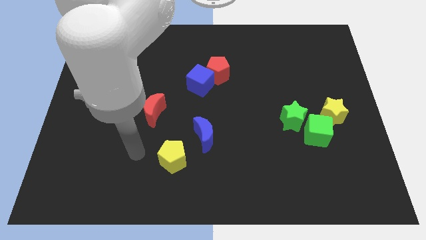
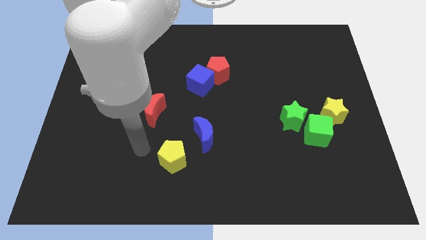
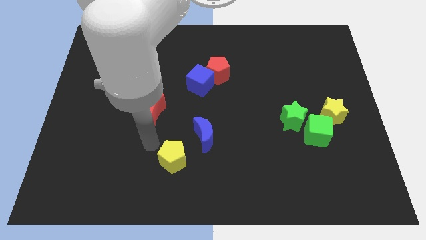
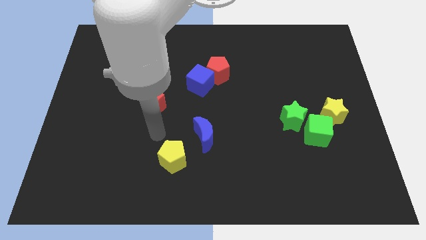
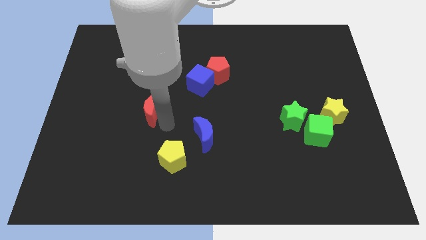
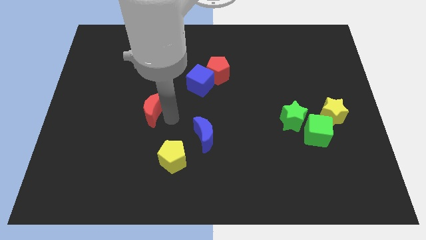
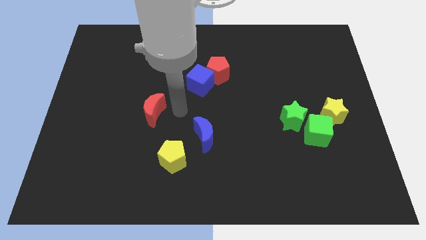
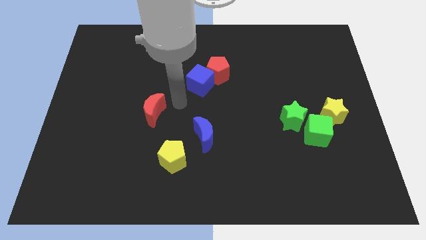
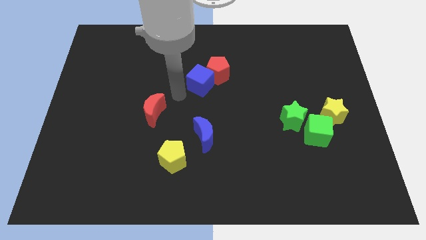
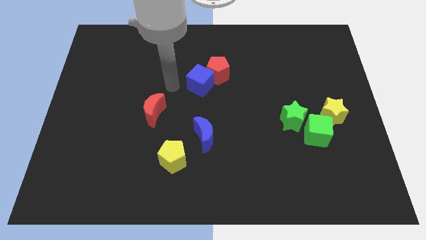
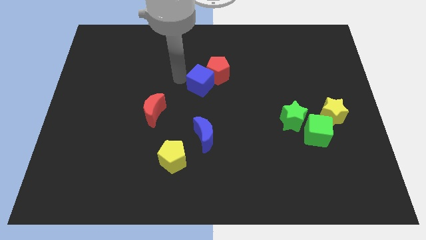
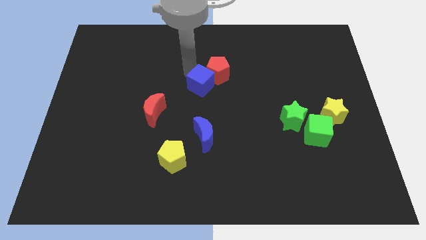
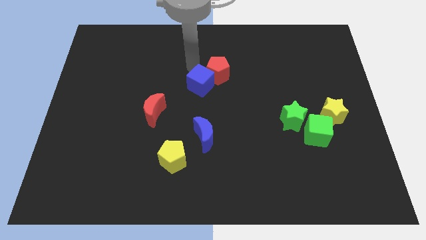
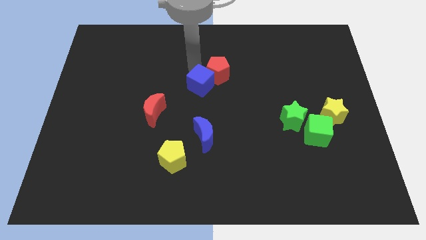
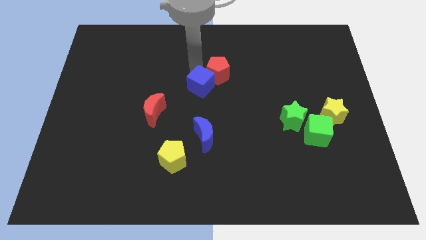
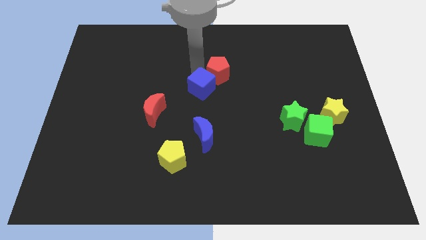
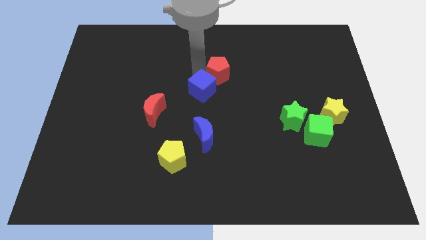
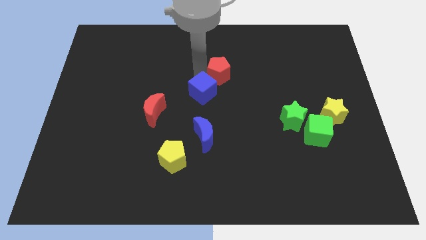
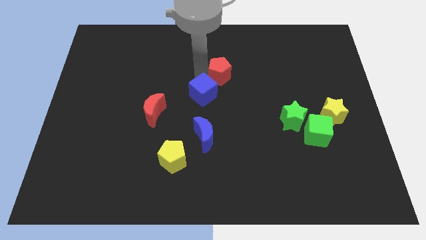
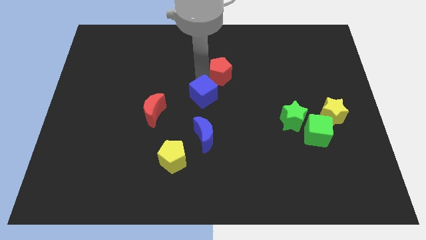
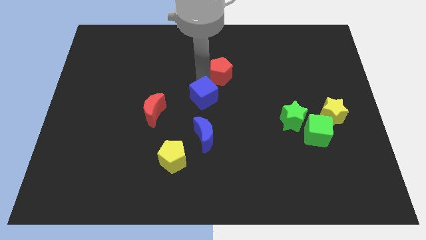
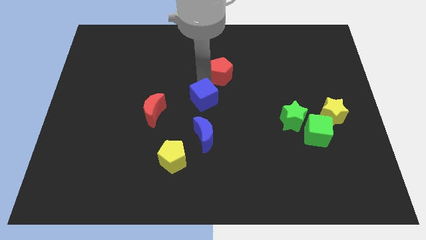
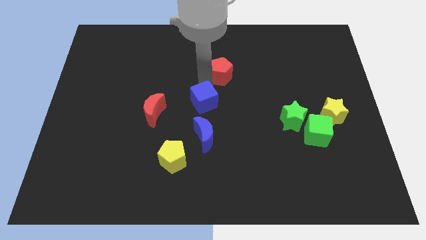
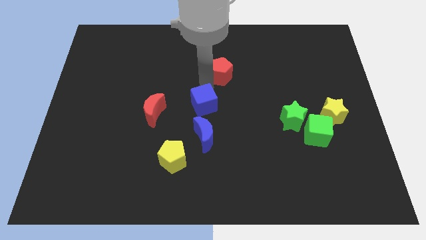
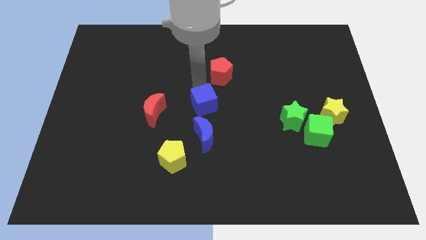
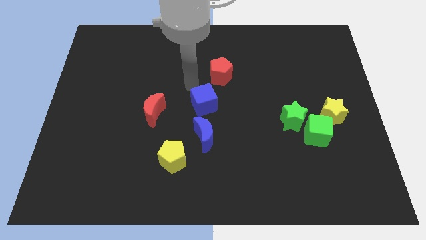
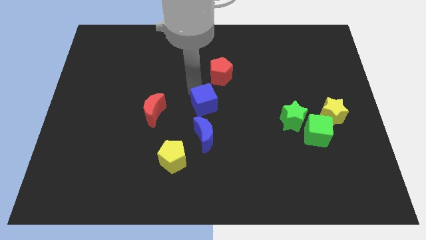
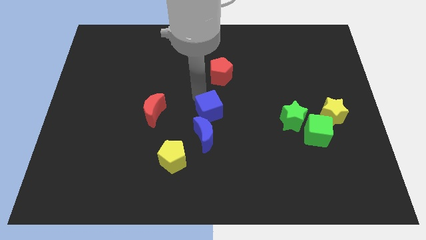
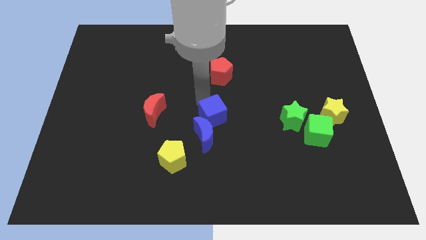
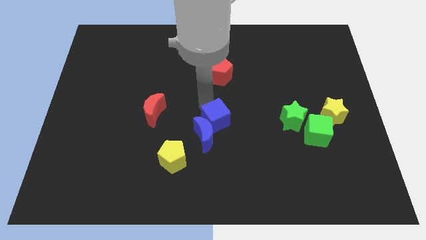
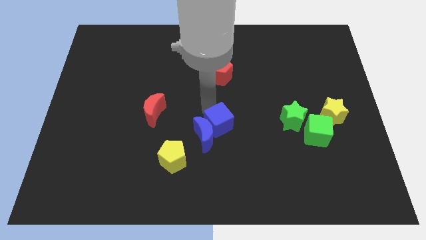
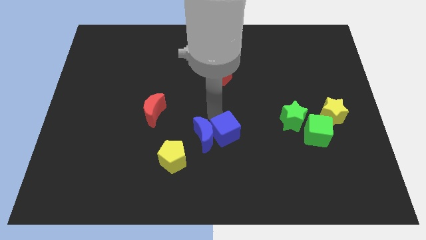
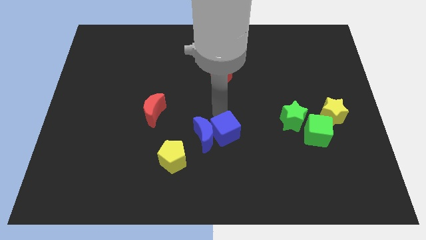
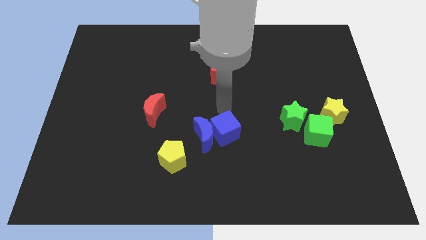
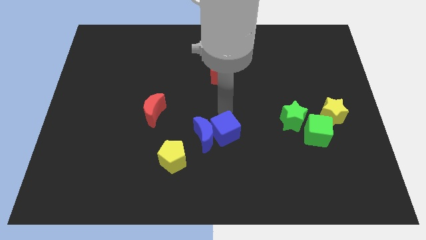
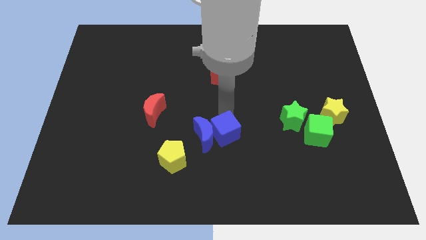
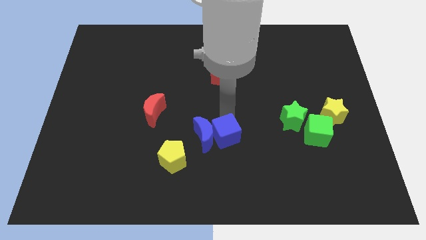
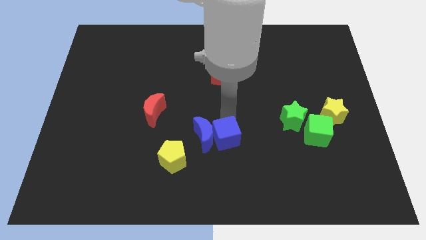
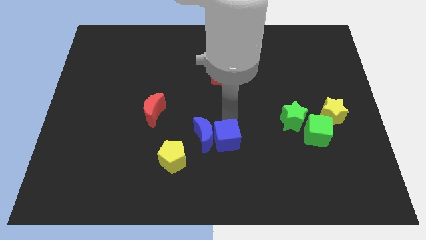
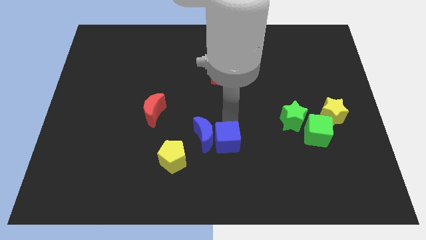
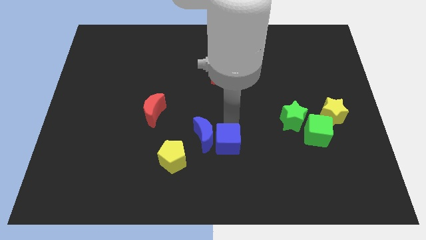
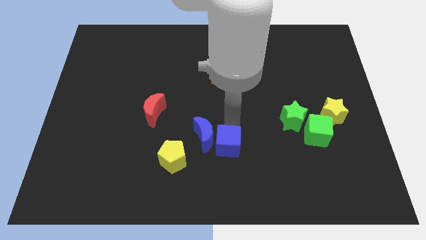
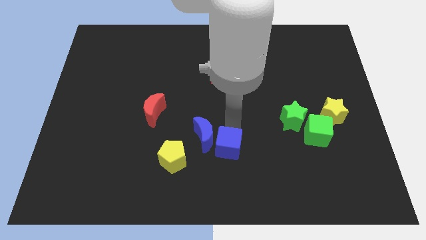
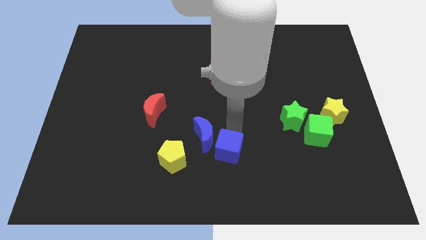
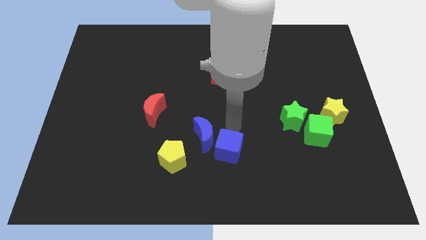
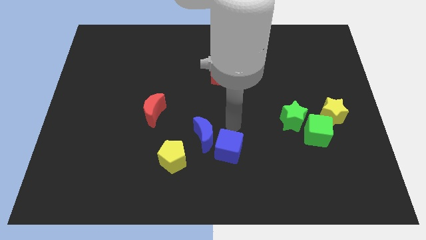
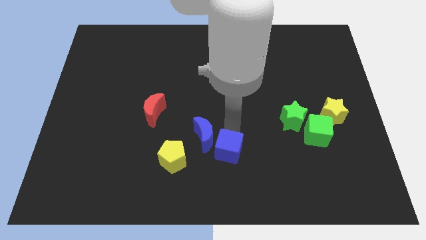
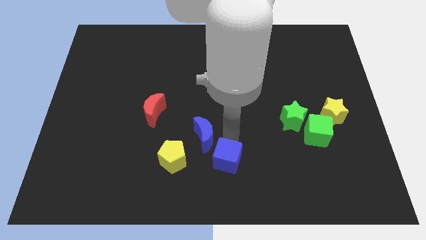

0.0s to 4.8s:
move the blue cube to the bottom side

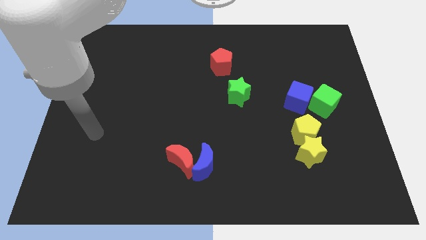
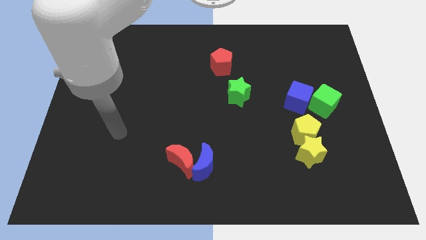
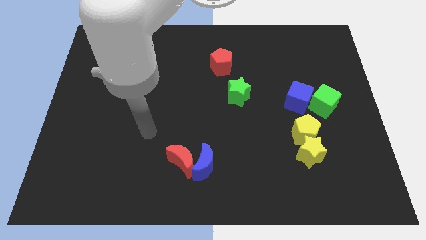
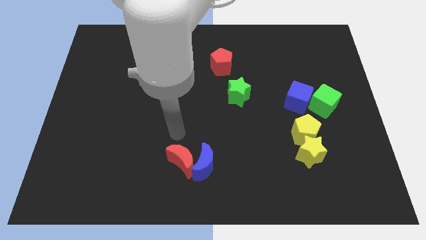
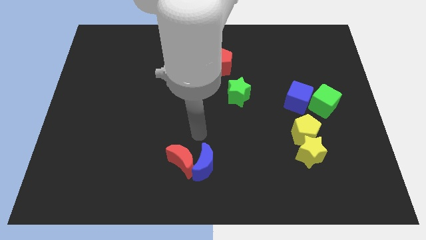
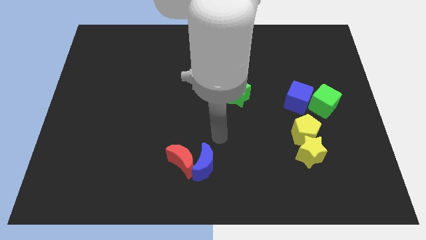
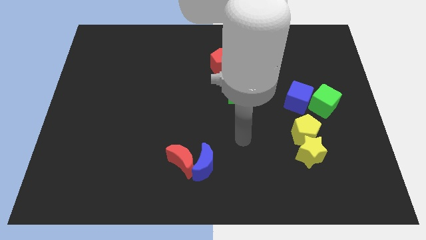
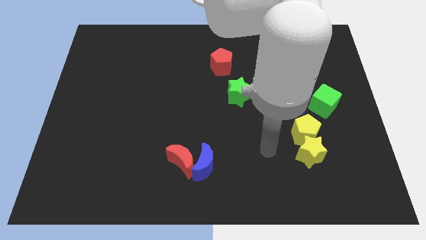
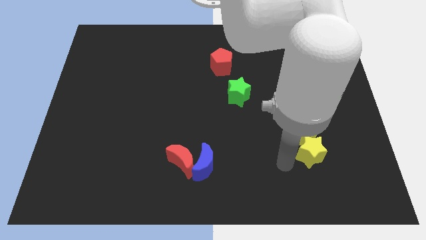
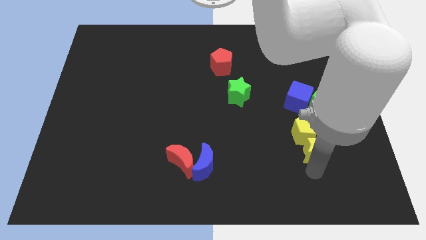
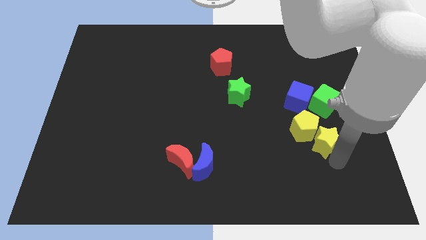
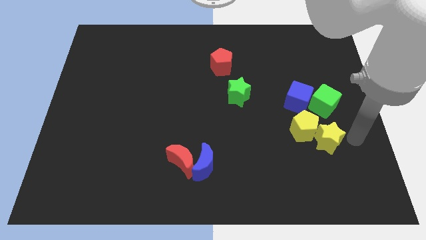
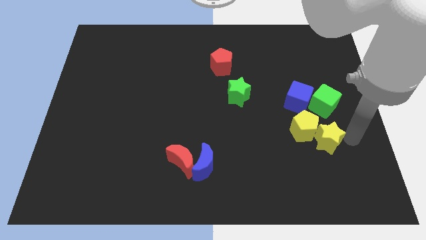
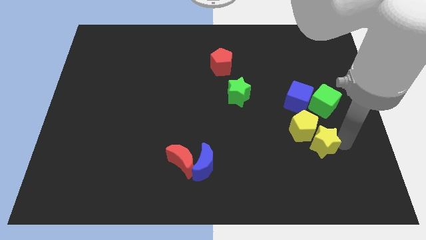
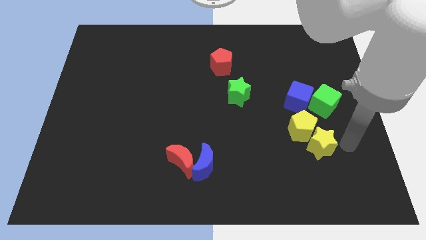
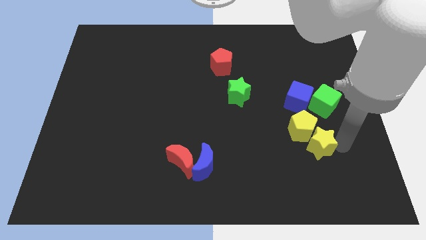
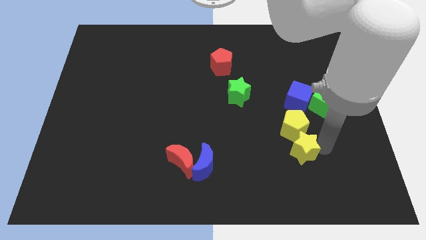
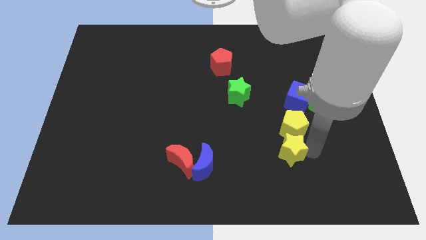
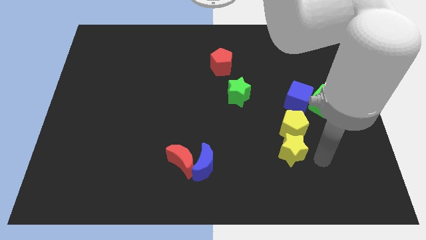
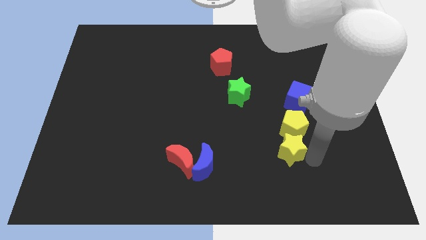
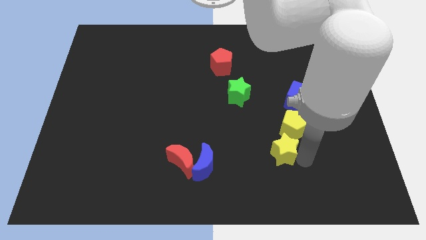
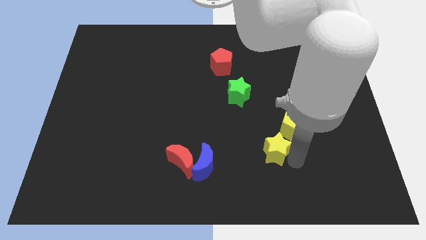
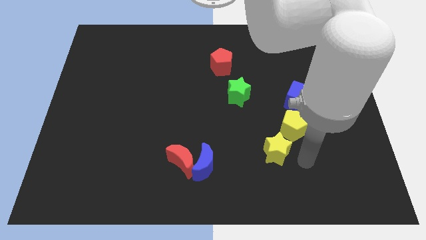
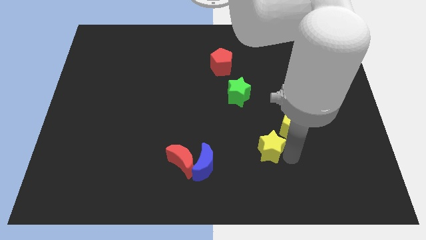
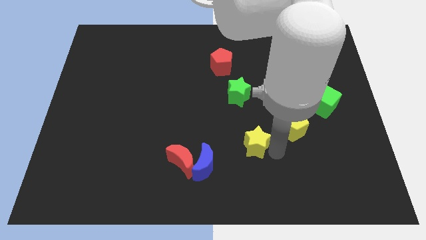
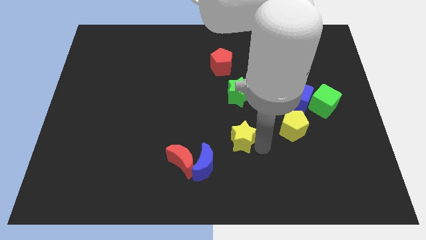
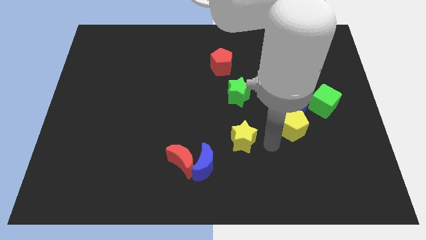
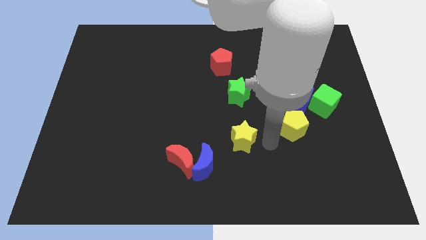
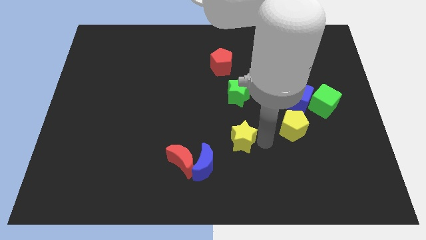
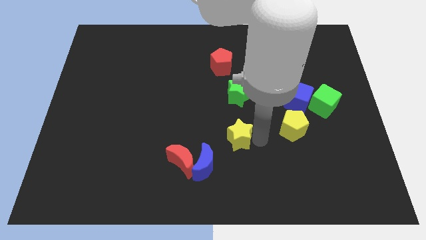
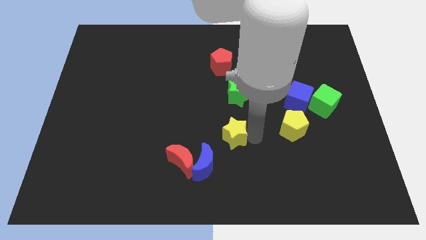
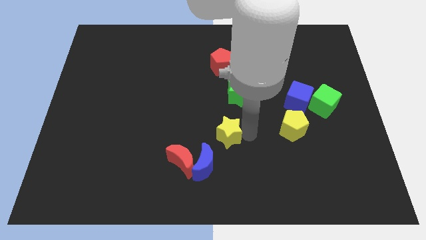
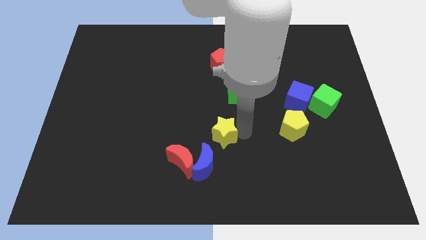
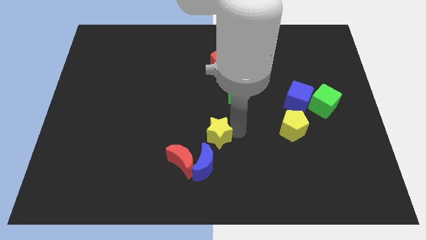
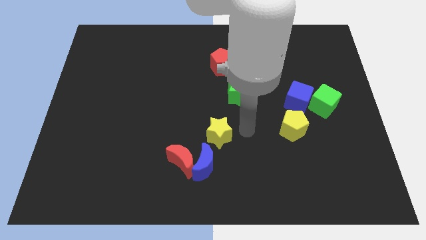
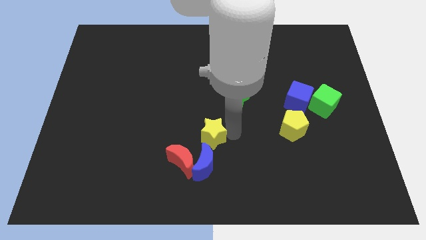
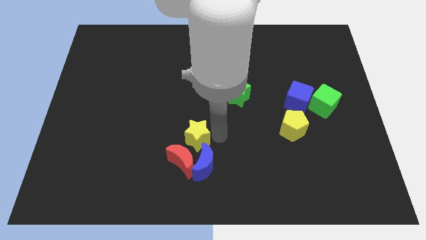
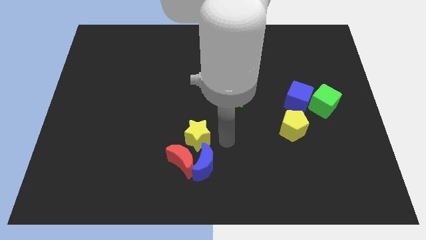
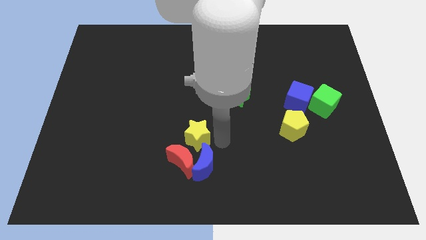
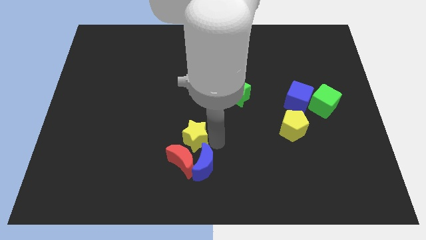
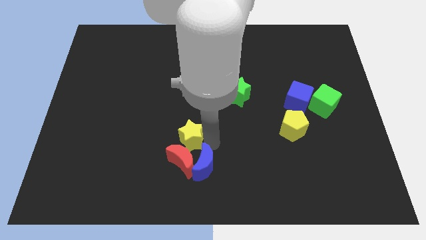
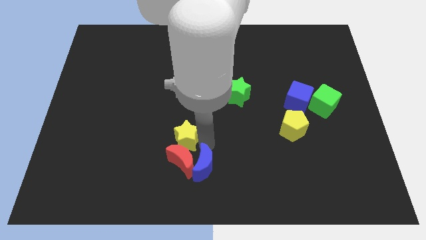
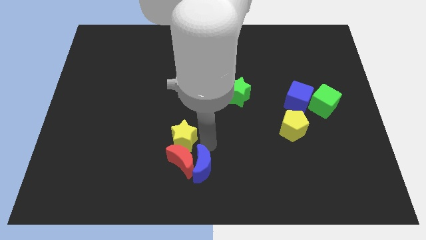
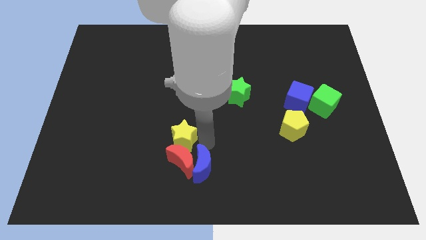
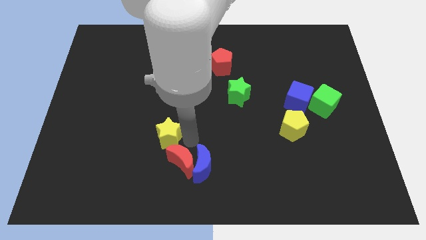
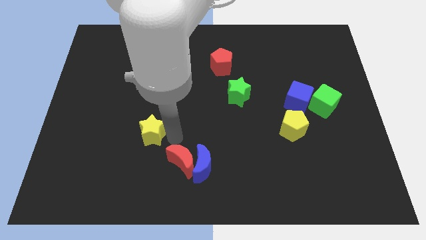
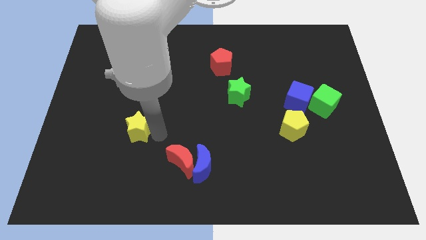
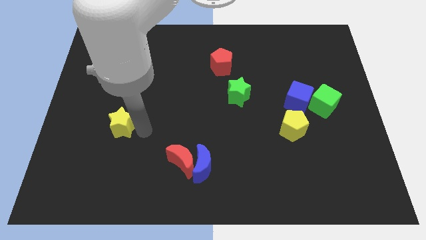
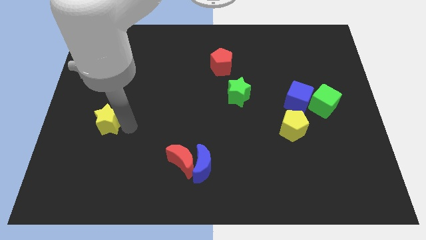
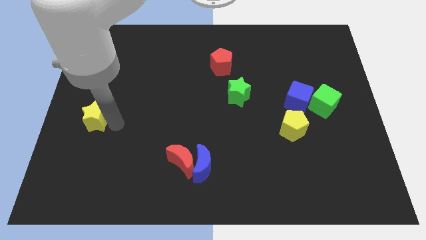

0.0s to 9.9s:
move the yellow star to the center left
